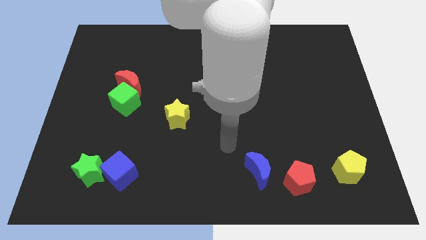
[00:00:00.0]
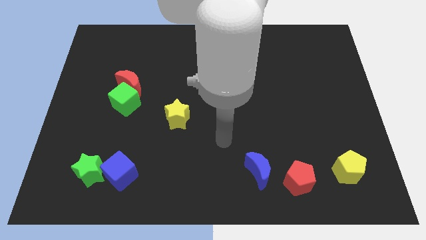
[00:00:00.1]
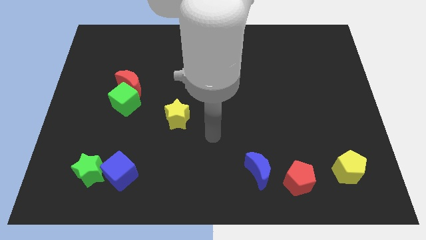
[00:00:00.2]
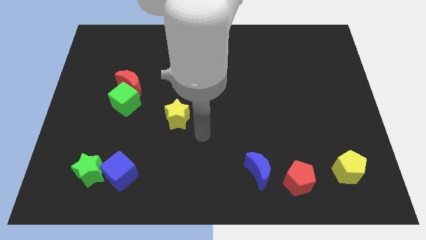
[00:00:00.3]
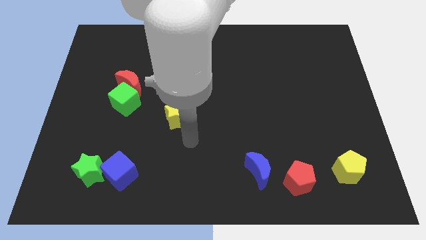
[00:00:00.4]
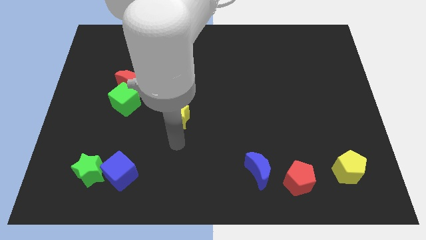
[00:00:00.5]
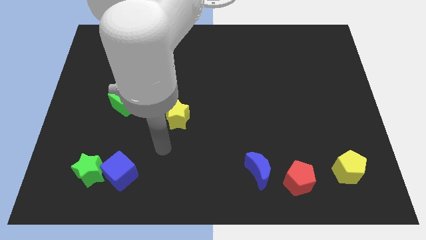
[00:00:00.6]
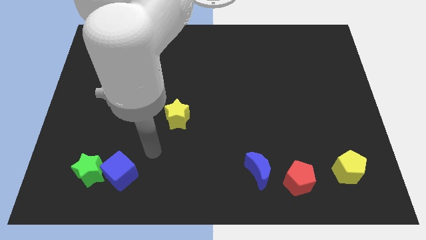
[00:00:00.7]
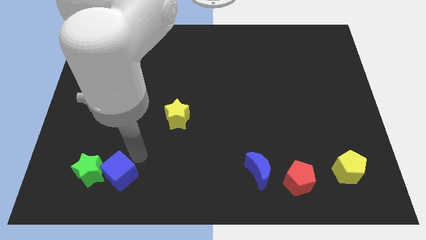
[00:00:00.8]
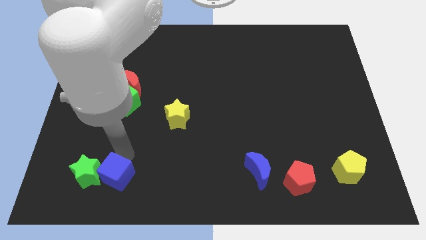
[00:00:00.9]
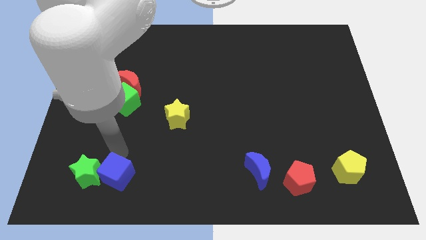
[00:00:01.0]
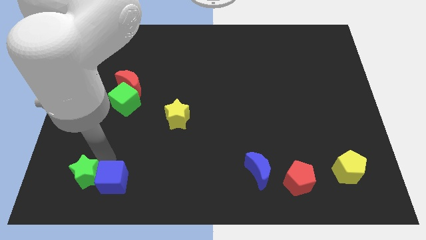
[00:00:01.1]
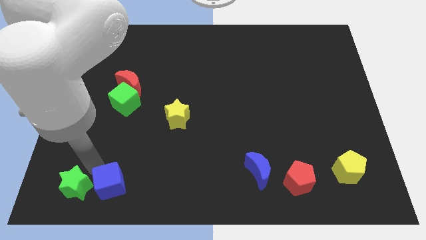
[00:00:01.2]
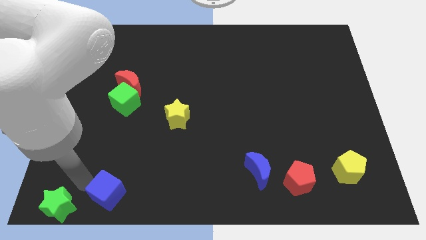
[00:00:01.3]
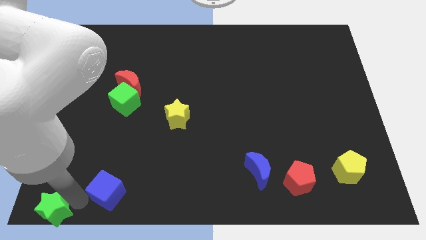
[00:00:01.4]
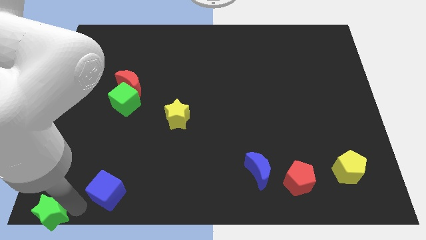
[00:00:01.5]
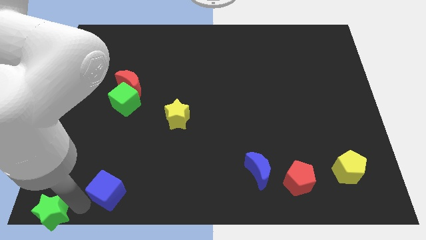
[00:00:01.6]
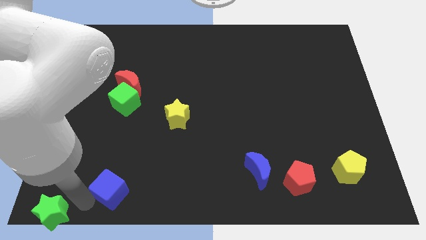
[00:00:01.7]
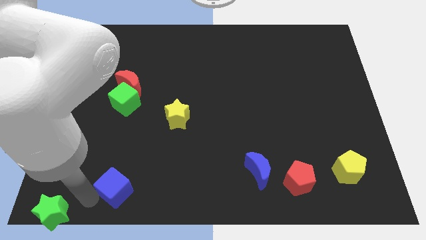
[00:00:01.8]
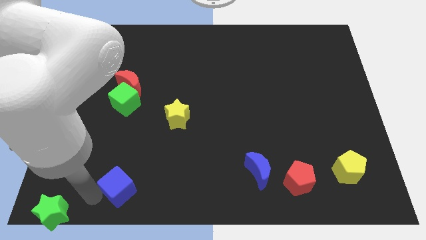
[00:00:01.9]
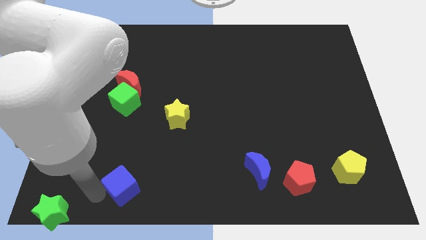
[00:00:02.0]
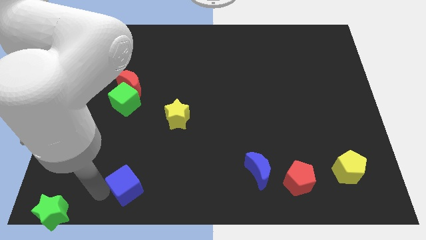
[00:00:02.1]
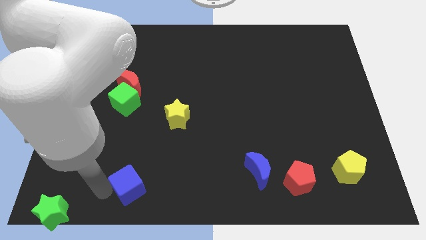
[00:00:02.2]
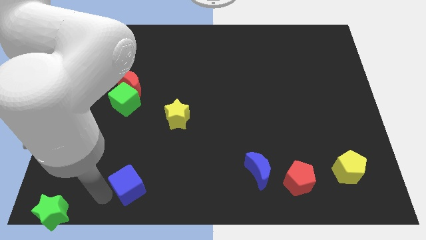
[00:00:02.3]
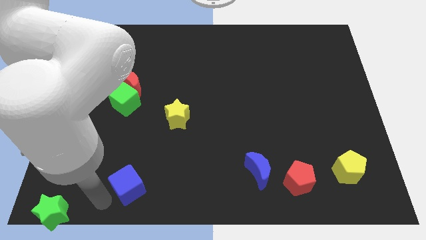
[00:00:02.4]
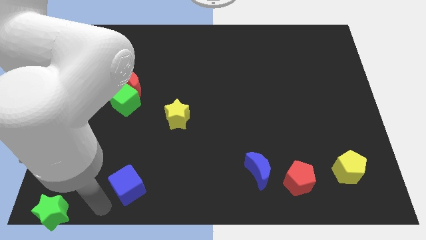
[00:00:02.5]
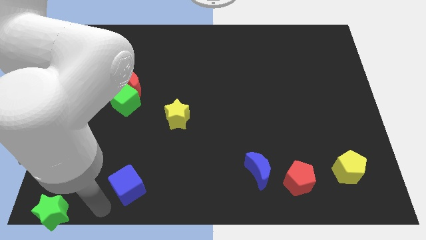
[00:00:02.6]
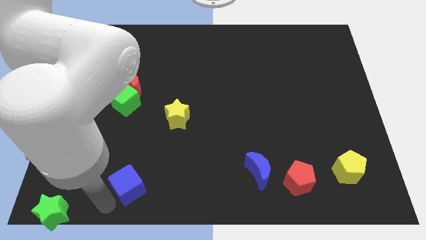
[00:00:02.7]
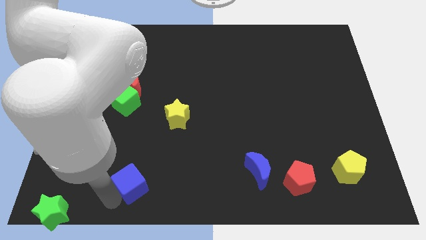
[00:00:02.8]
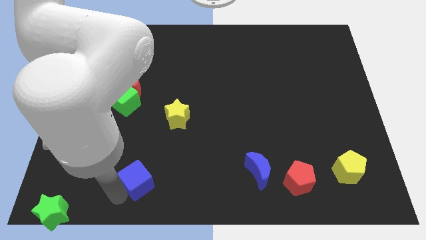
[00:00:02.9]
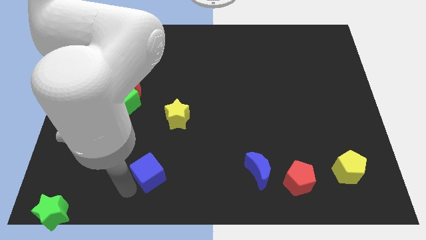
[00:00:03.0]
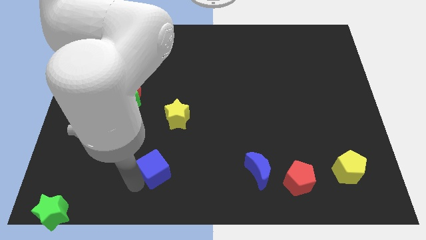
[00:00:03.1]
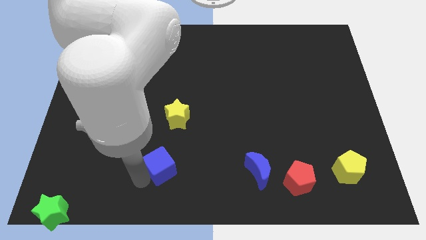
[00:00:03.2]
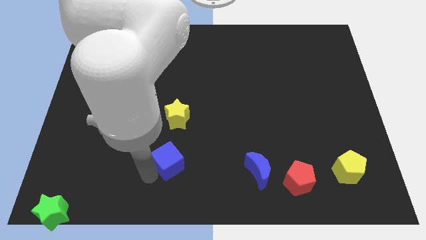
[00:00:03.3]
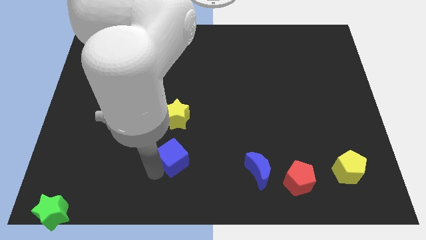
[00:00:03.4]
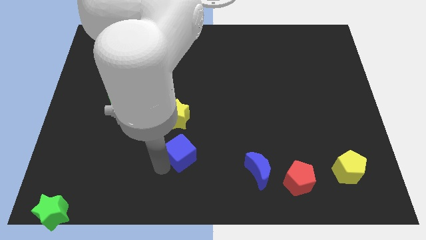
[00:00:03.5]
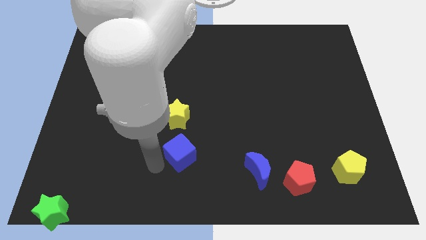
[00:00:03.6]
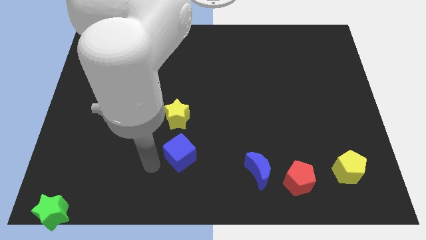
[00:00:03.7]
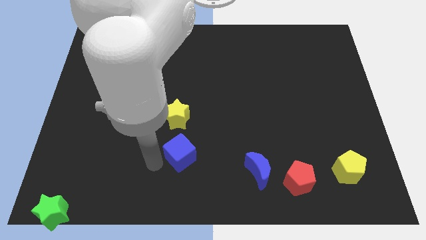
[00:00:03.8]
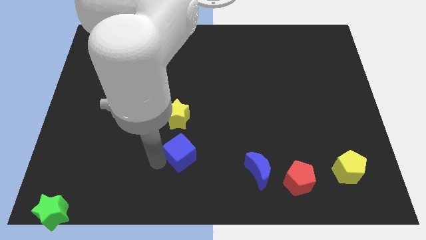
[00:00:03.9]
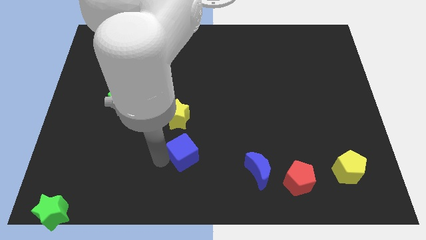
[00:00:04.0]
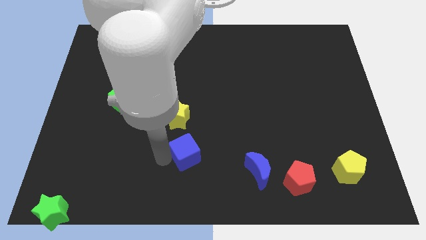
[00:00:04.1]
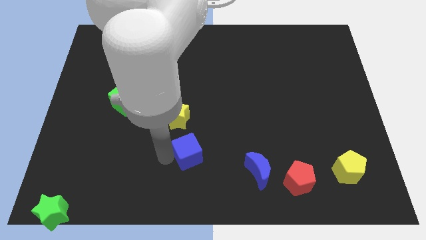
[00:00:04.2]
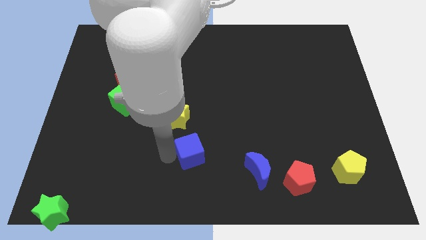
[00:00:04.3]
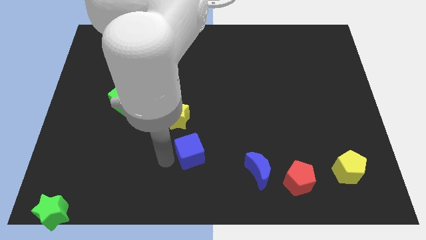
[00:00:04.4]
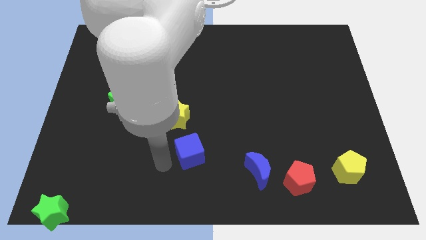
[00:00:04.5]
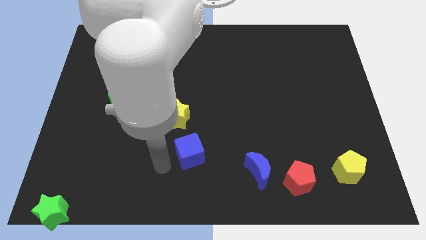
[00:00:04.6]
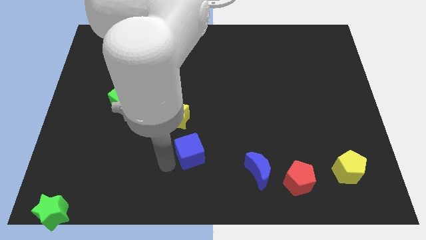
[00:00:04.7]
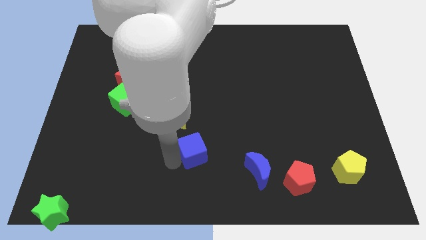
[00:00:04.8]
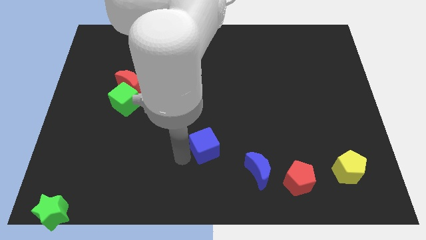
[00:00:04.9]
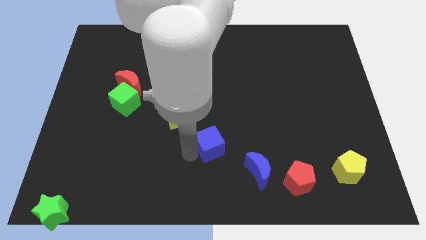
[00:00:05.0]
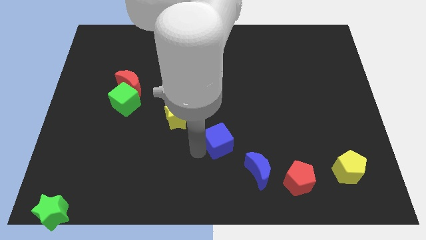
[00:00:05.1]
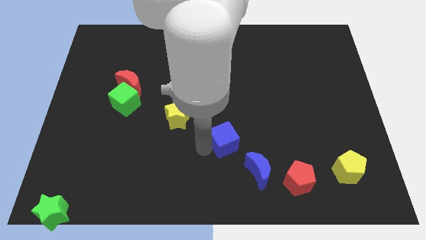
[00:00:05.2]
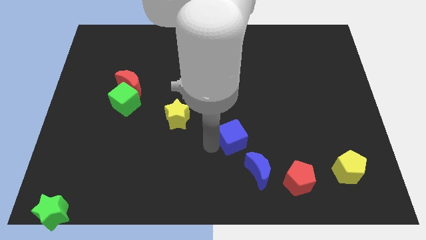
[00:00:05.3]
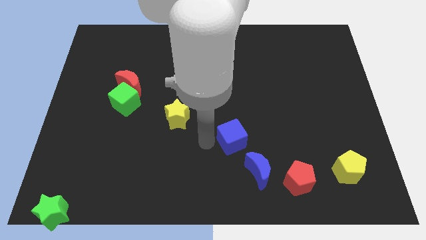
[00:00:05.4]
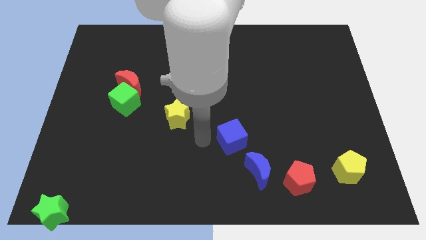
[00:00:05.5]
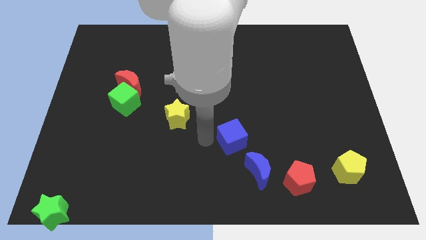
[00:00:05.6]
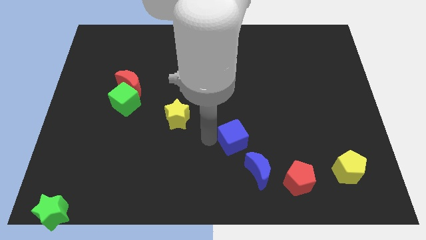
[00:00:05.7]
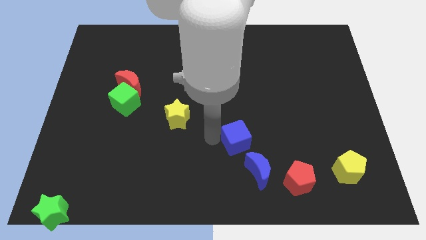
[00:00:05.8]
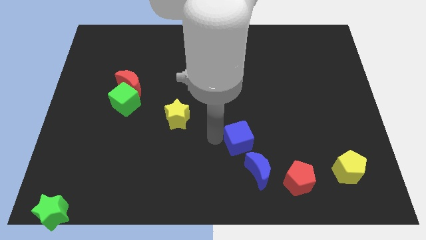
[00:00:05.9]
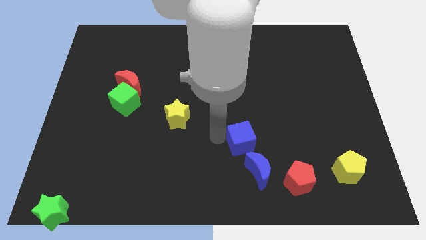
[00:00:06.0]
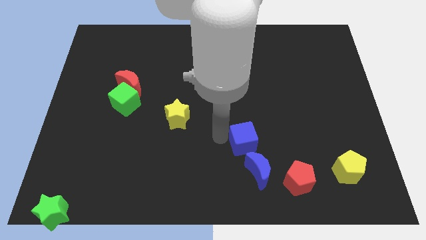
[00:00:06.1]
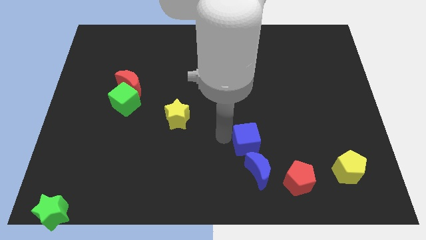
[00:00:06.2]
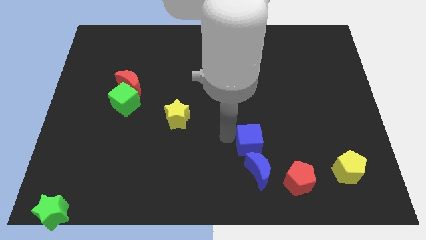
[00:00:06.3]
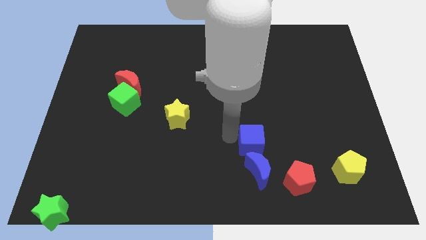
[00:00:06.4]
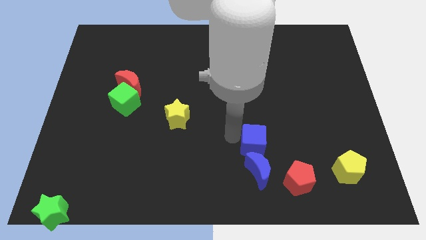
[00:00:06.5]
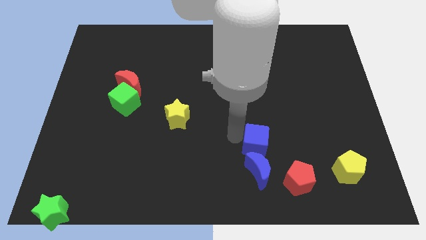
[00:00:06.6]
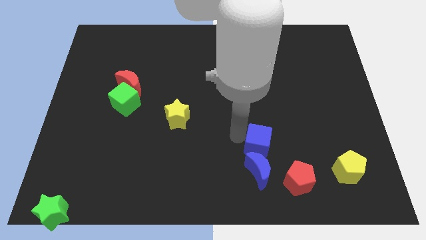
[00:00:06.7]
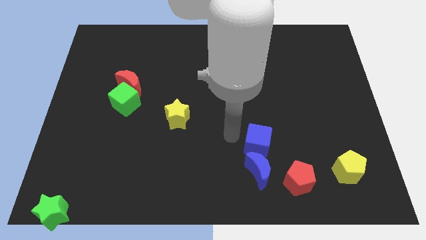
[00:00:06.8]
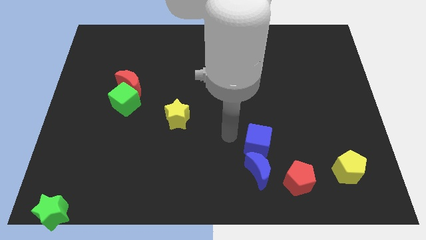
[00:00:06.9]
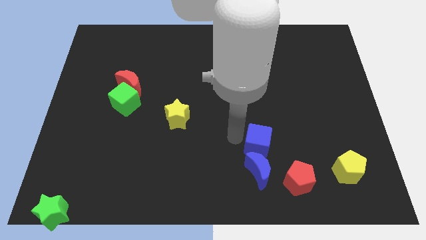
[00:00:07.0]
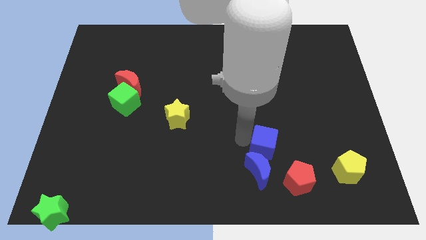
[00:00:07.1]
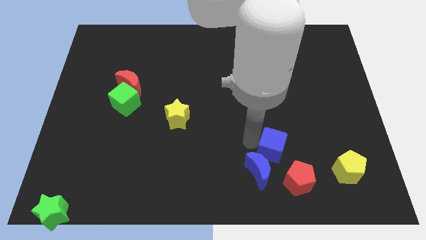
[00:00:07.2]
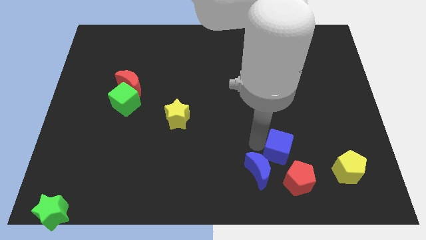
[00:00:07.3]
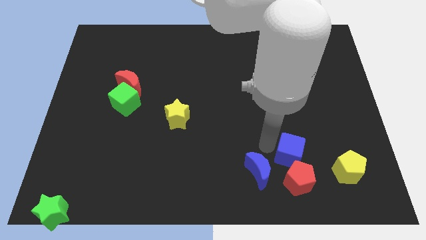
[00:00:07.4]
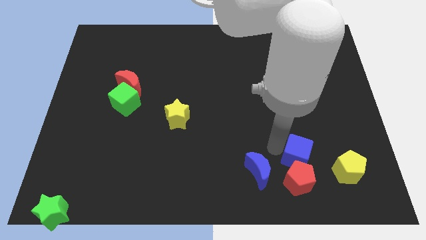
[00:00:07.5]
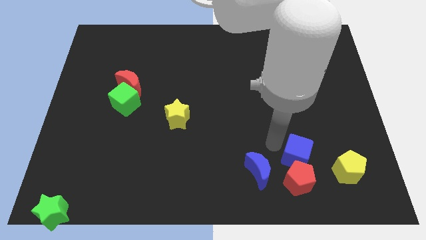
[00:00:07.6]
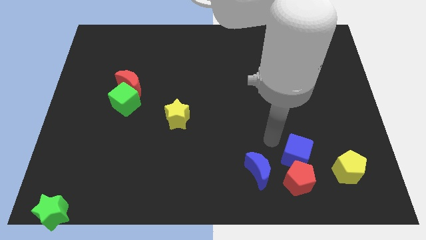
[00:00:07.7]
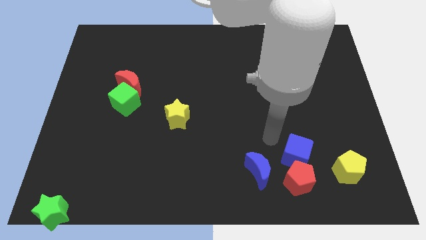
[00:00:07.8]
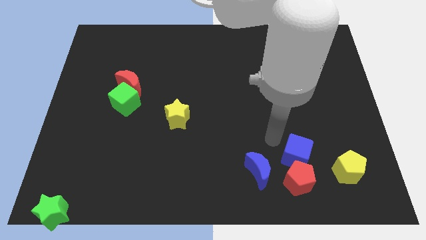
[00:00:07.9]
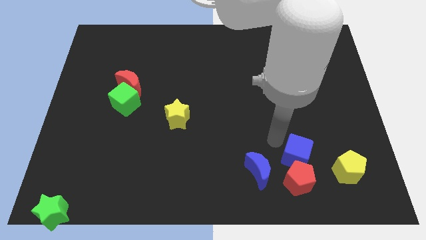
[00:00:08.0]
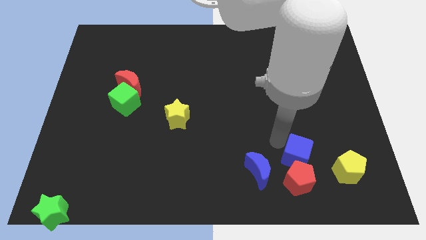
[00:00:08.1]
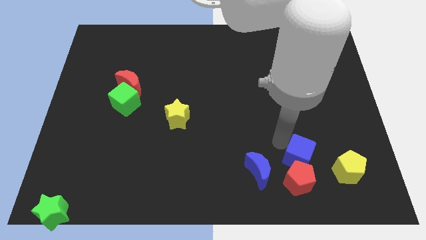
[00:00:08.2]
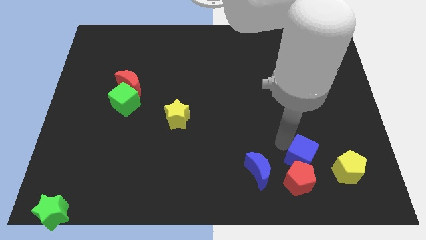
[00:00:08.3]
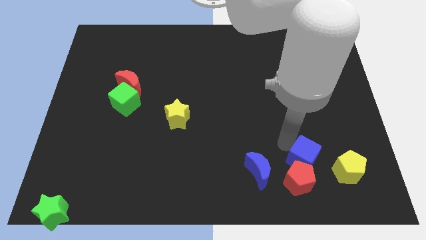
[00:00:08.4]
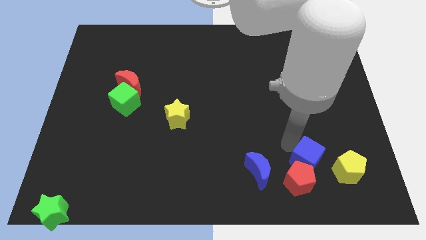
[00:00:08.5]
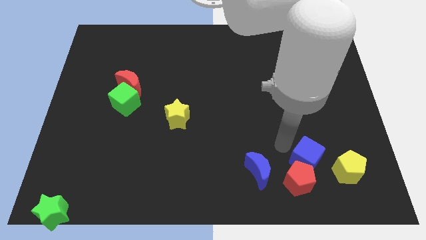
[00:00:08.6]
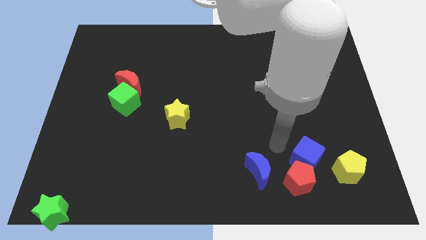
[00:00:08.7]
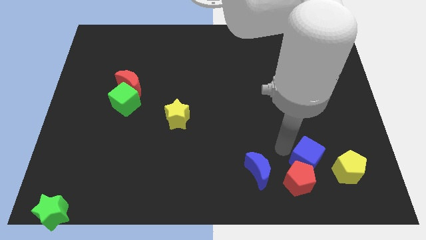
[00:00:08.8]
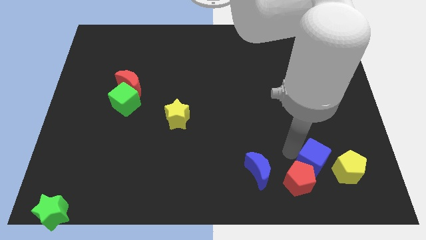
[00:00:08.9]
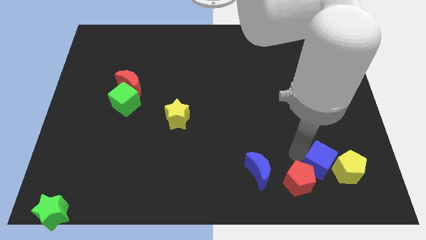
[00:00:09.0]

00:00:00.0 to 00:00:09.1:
slide the blue cube towards the yellow pentagon
